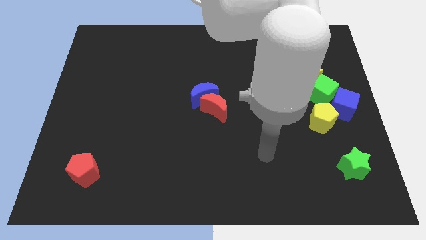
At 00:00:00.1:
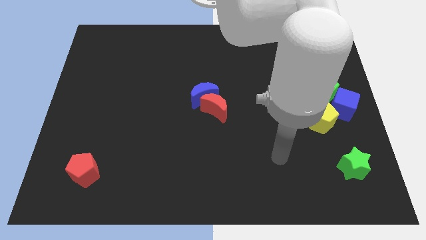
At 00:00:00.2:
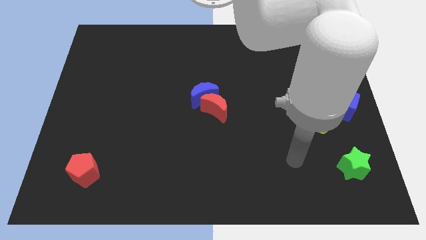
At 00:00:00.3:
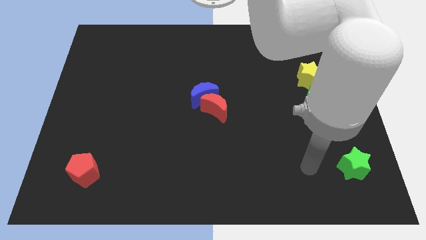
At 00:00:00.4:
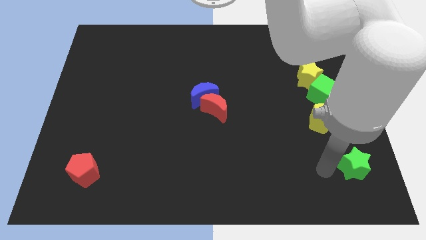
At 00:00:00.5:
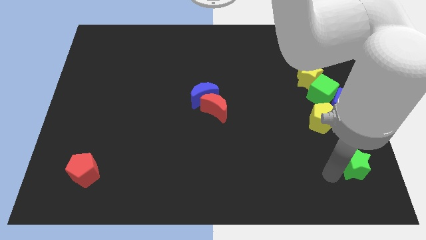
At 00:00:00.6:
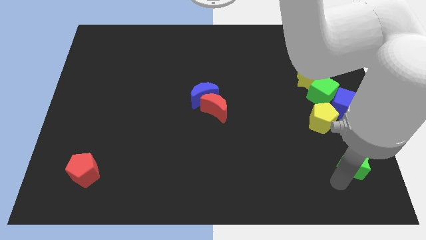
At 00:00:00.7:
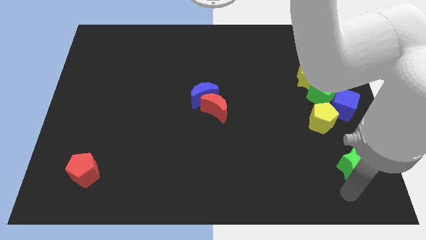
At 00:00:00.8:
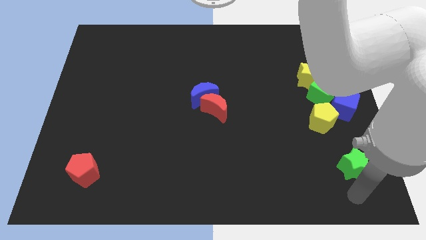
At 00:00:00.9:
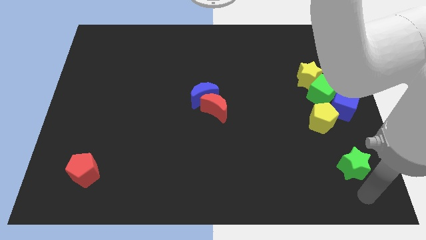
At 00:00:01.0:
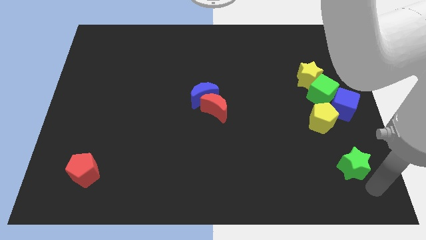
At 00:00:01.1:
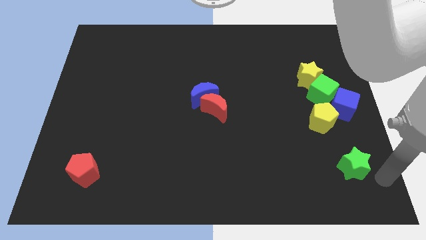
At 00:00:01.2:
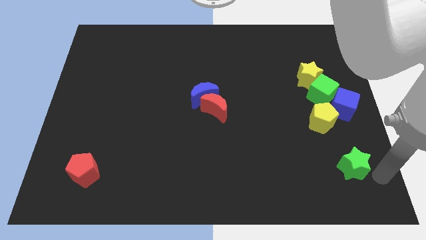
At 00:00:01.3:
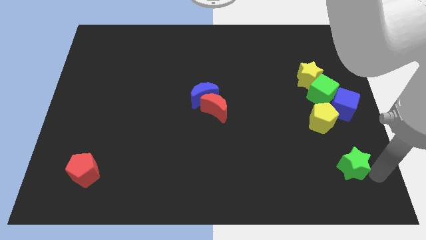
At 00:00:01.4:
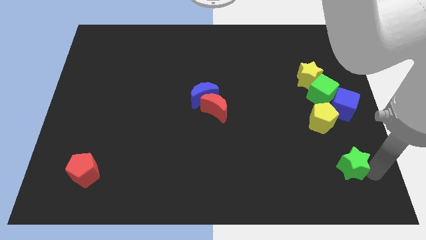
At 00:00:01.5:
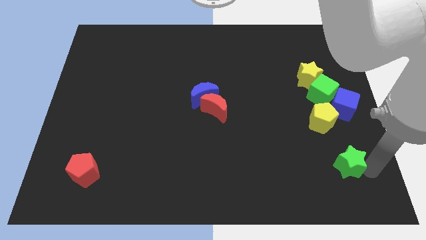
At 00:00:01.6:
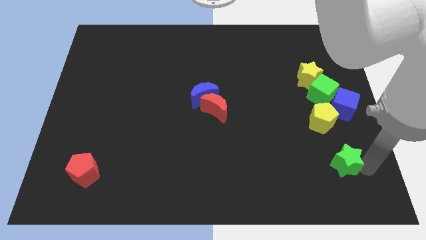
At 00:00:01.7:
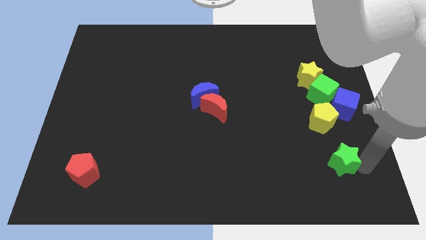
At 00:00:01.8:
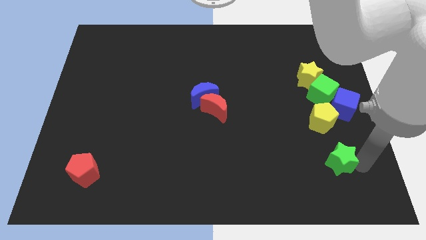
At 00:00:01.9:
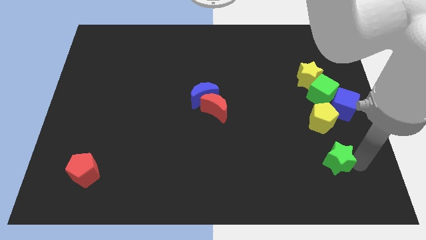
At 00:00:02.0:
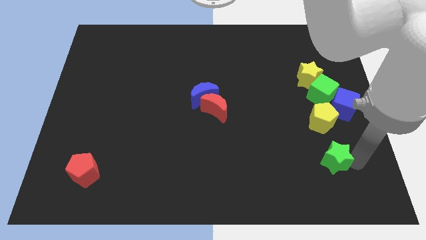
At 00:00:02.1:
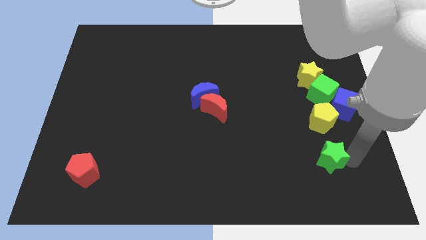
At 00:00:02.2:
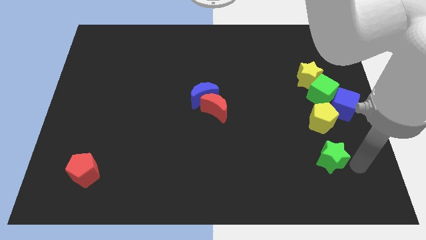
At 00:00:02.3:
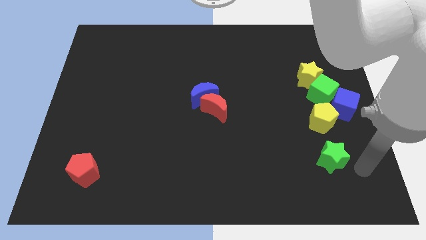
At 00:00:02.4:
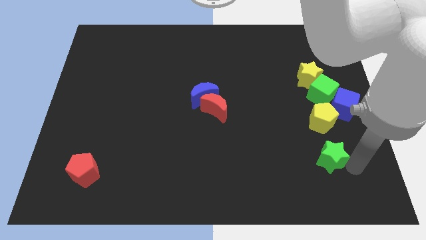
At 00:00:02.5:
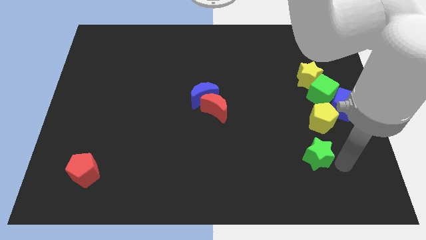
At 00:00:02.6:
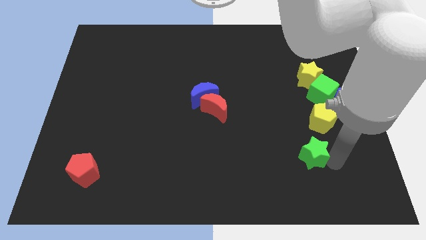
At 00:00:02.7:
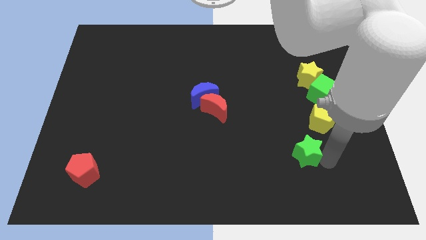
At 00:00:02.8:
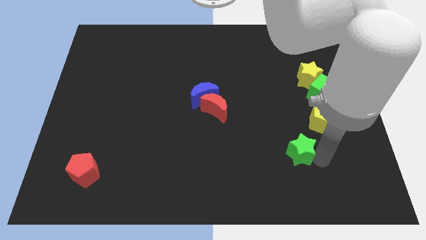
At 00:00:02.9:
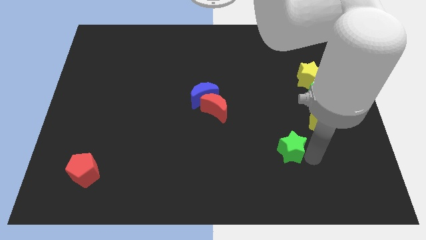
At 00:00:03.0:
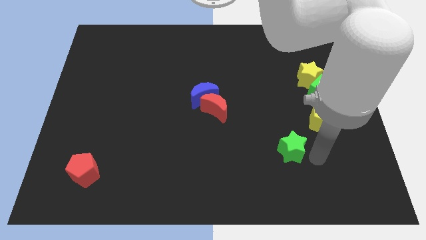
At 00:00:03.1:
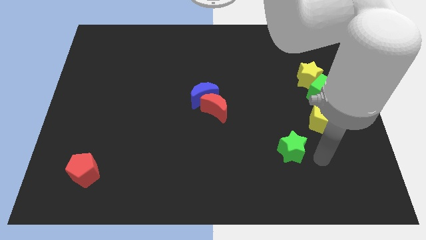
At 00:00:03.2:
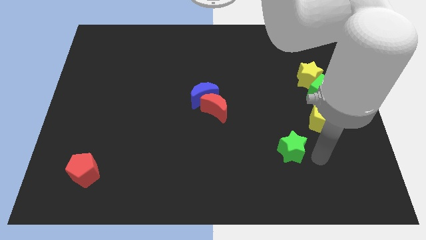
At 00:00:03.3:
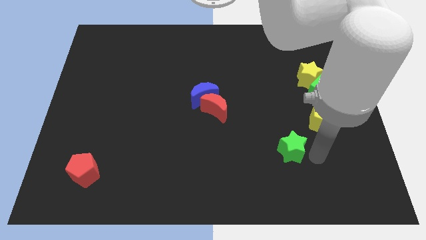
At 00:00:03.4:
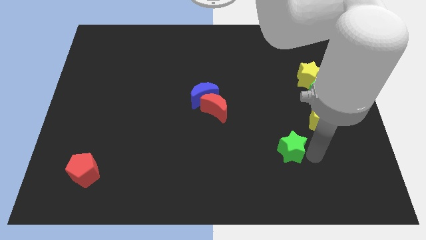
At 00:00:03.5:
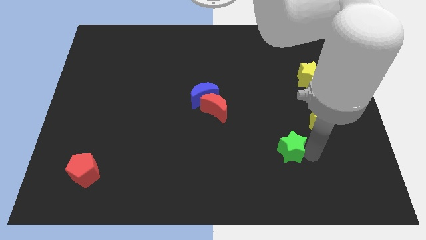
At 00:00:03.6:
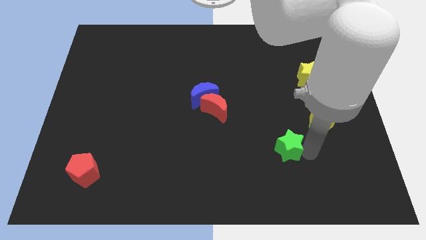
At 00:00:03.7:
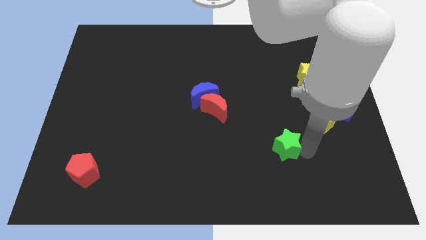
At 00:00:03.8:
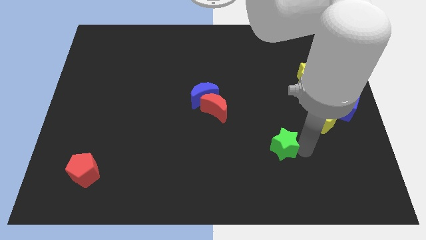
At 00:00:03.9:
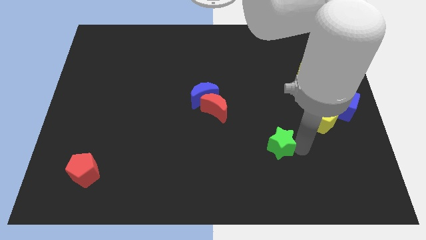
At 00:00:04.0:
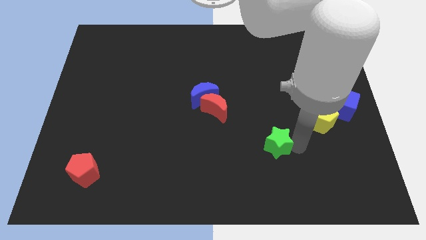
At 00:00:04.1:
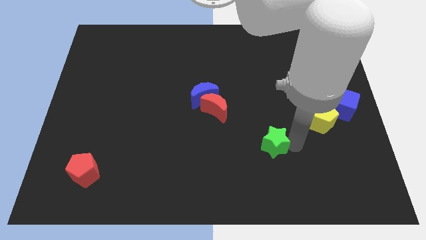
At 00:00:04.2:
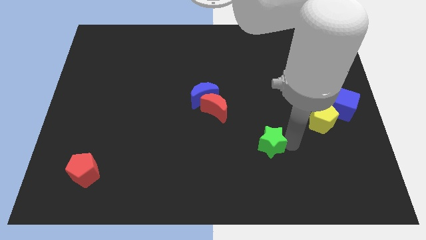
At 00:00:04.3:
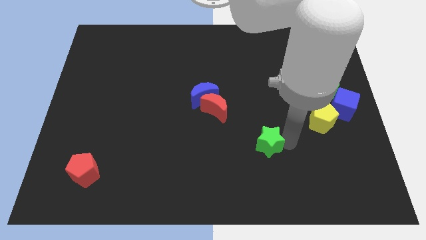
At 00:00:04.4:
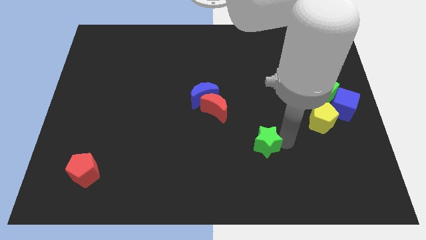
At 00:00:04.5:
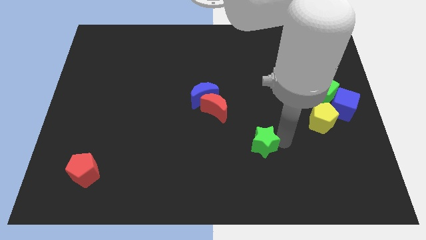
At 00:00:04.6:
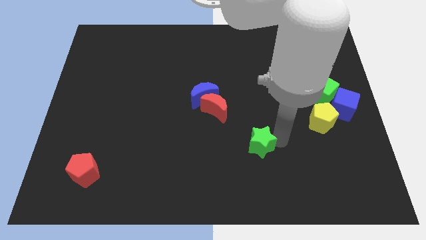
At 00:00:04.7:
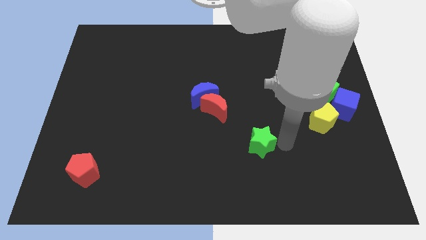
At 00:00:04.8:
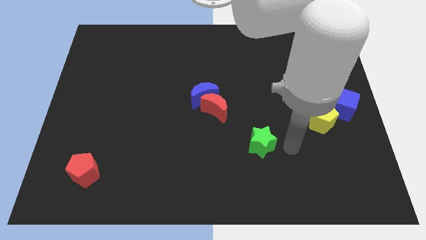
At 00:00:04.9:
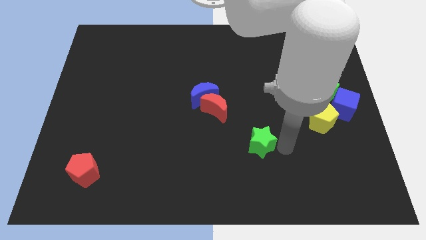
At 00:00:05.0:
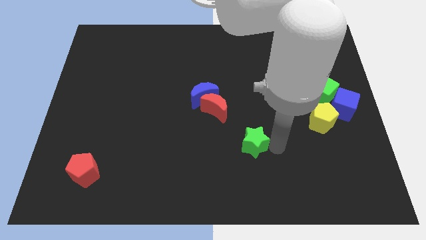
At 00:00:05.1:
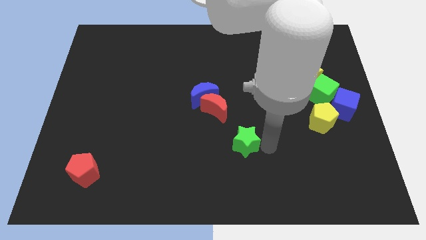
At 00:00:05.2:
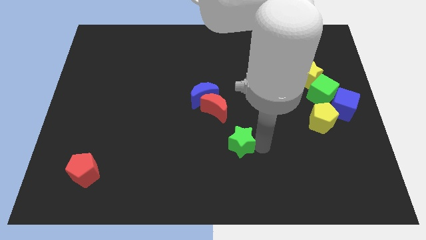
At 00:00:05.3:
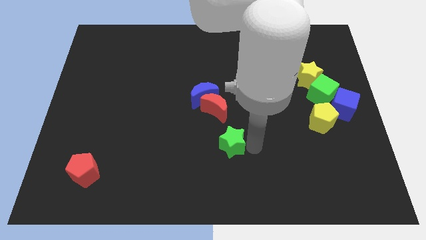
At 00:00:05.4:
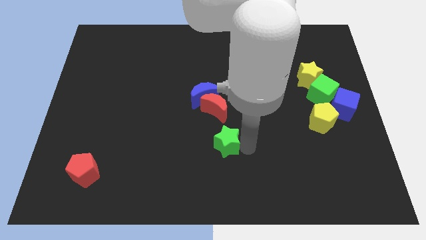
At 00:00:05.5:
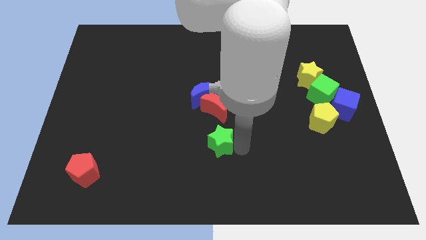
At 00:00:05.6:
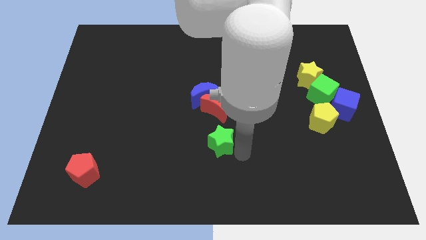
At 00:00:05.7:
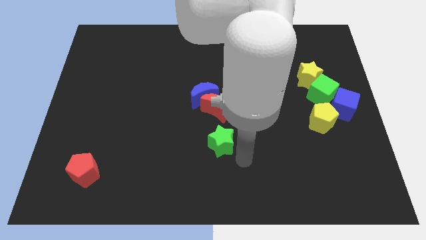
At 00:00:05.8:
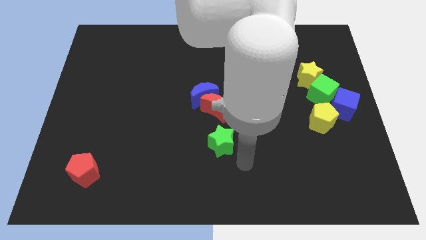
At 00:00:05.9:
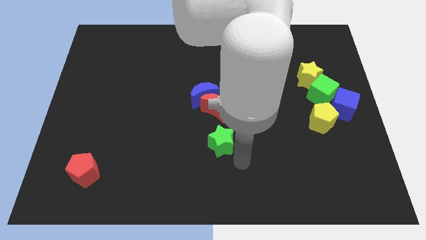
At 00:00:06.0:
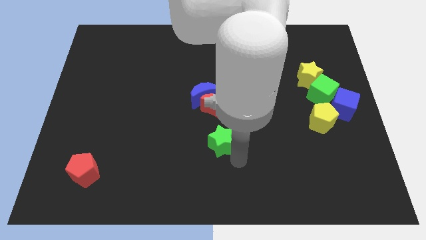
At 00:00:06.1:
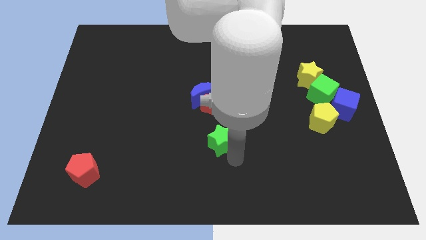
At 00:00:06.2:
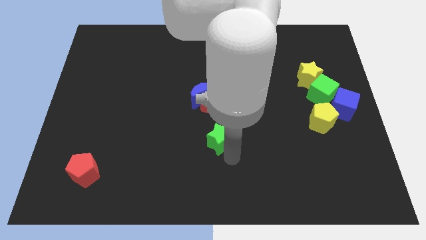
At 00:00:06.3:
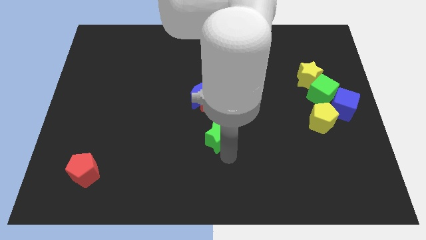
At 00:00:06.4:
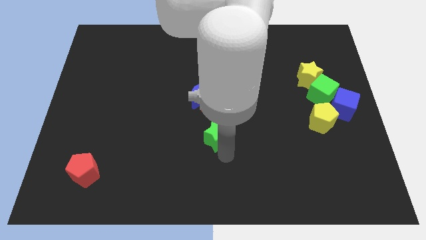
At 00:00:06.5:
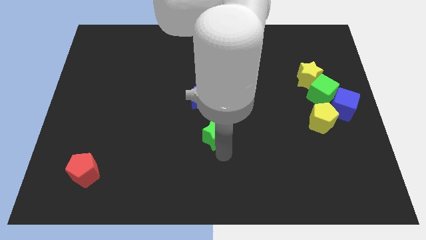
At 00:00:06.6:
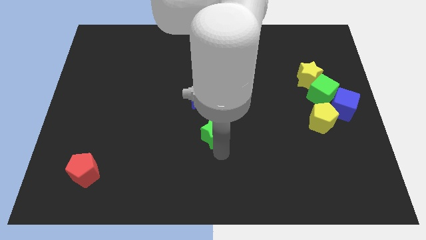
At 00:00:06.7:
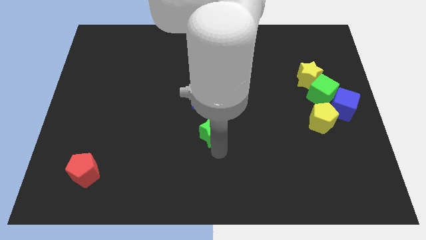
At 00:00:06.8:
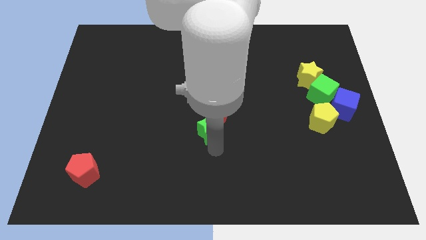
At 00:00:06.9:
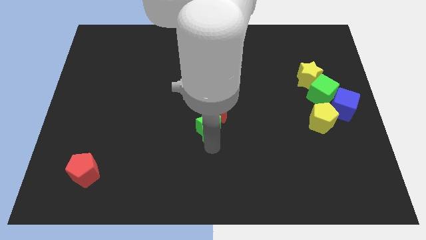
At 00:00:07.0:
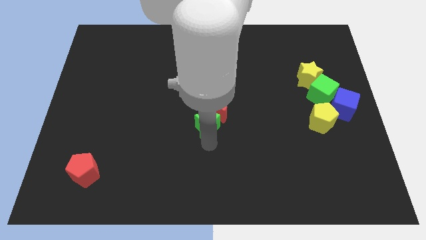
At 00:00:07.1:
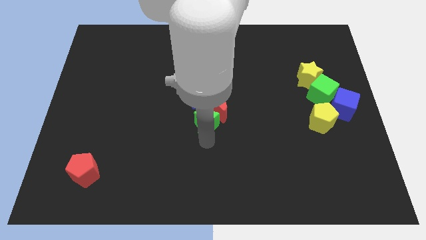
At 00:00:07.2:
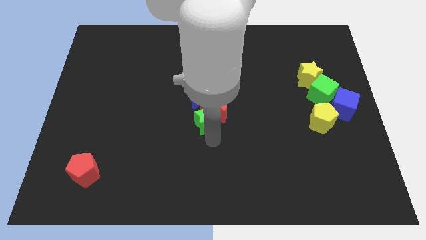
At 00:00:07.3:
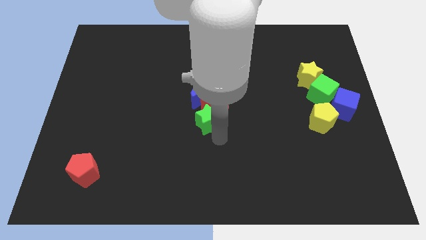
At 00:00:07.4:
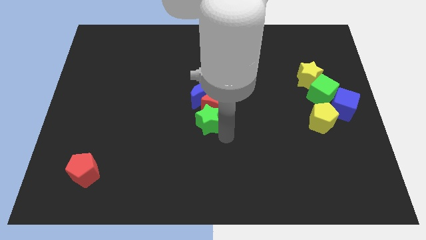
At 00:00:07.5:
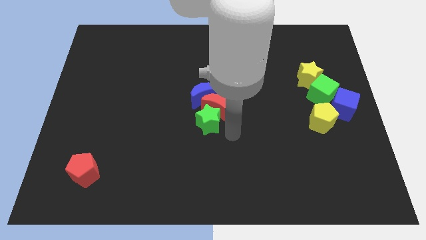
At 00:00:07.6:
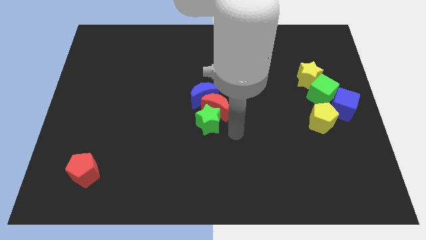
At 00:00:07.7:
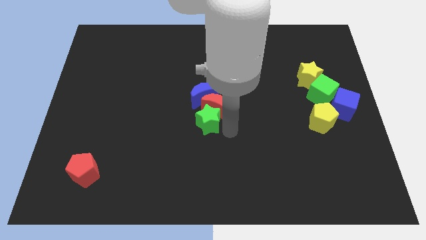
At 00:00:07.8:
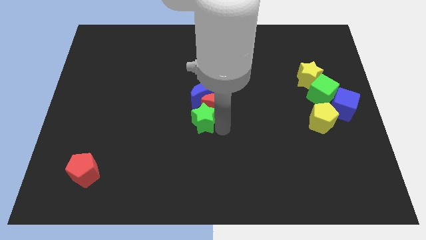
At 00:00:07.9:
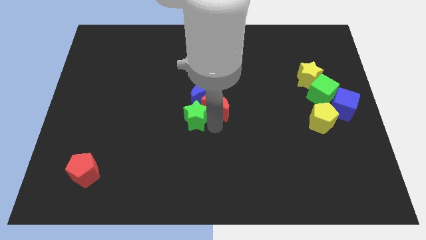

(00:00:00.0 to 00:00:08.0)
push the green star to the bottom left side of the blue moon
